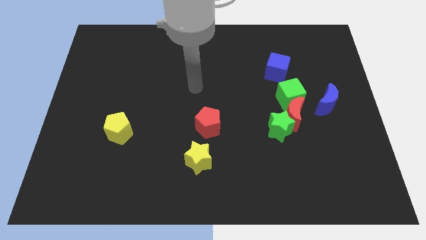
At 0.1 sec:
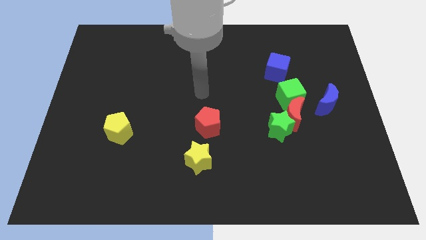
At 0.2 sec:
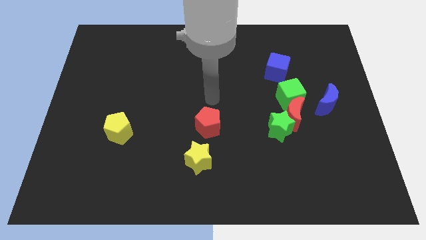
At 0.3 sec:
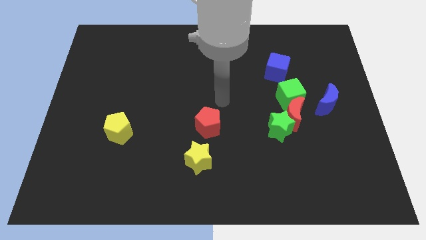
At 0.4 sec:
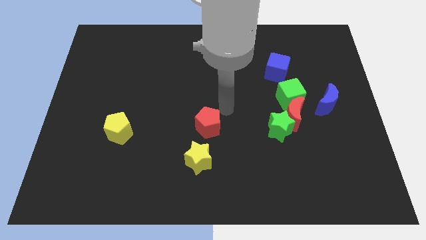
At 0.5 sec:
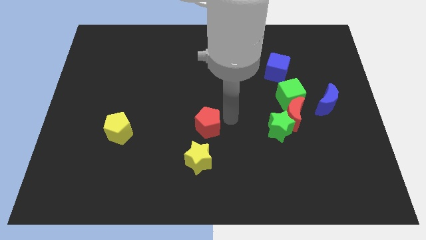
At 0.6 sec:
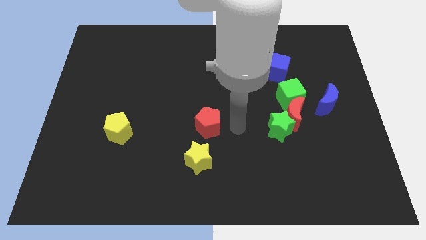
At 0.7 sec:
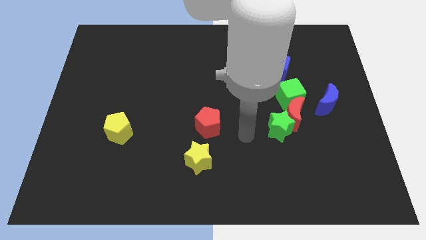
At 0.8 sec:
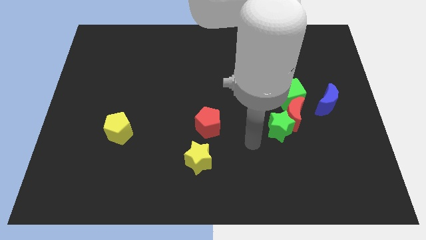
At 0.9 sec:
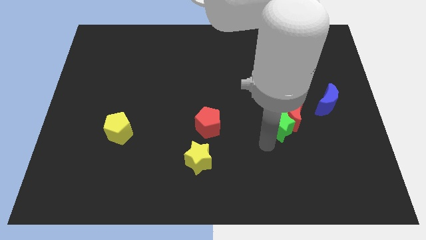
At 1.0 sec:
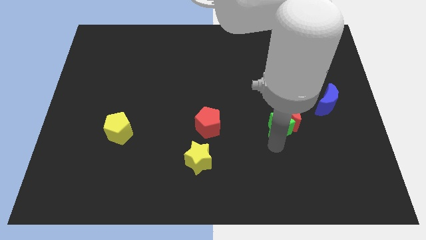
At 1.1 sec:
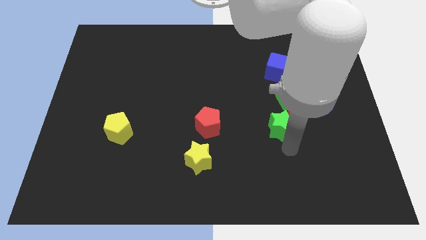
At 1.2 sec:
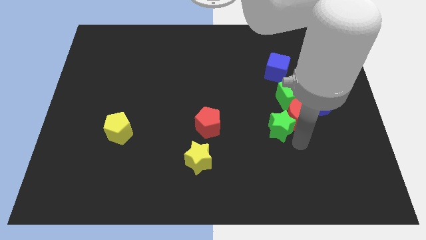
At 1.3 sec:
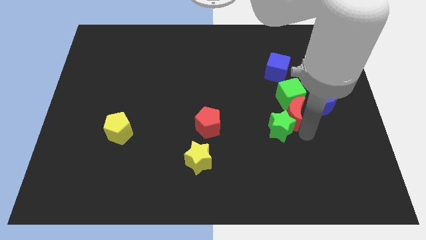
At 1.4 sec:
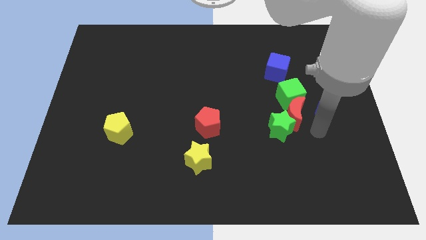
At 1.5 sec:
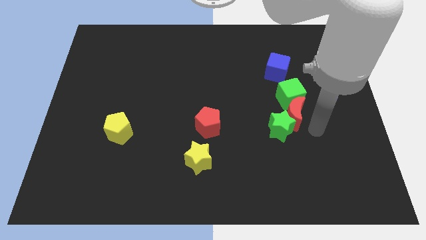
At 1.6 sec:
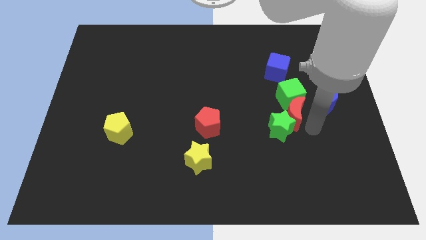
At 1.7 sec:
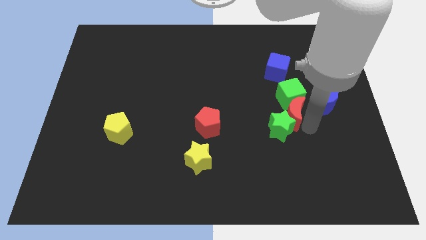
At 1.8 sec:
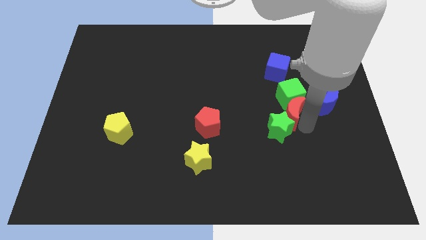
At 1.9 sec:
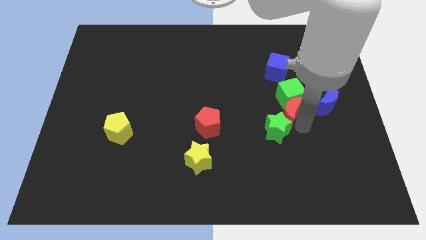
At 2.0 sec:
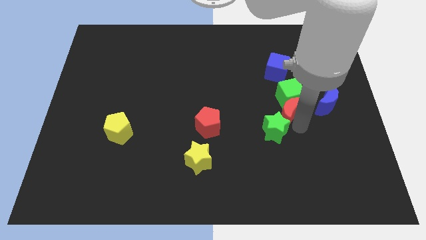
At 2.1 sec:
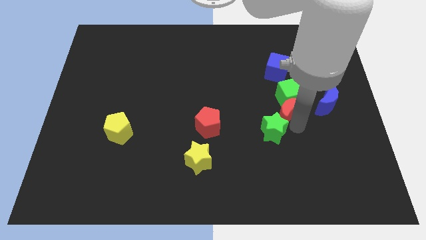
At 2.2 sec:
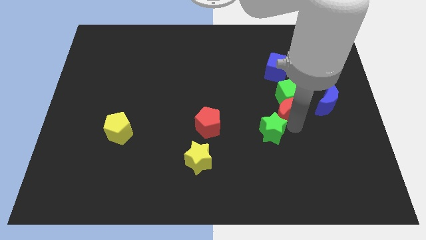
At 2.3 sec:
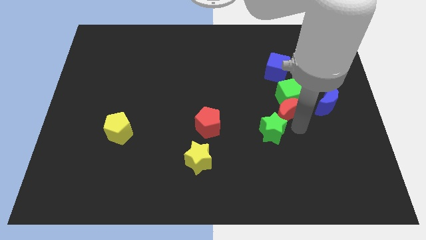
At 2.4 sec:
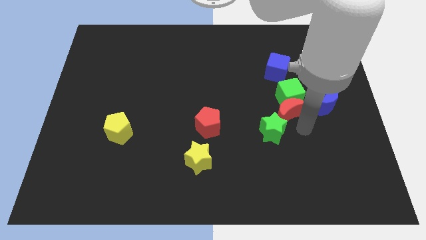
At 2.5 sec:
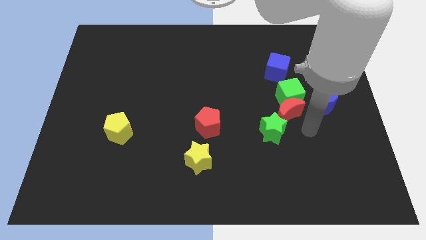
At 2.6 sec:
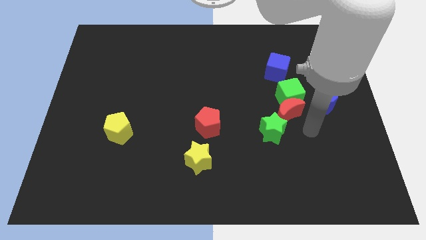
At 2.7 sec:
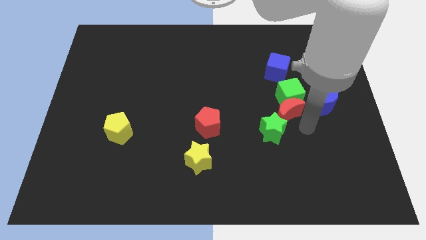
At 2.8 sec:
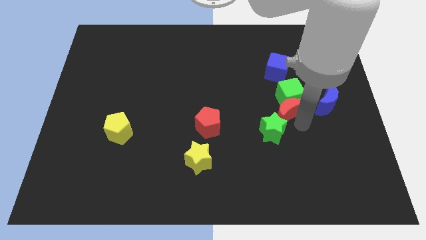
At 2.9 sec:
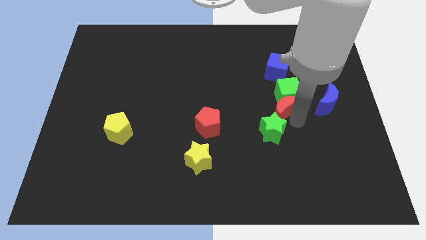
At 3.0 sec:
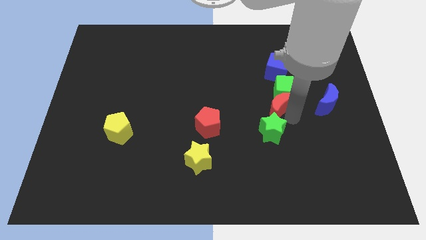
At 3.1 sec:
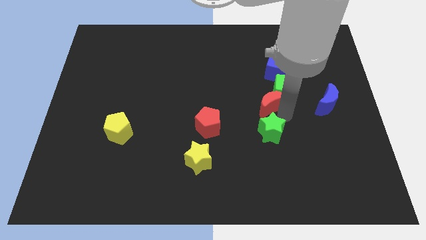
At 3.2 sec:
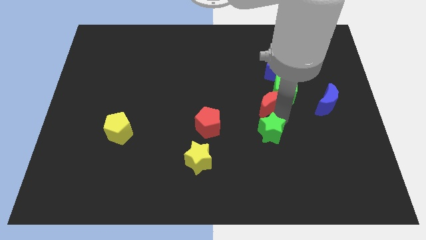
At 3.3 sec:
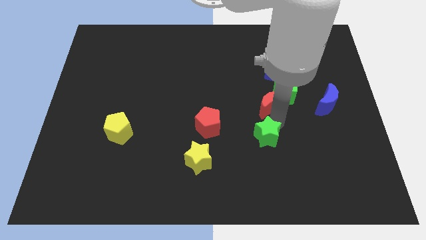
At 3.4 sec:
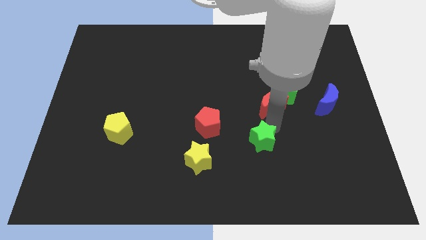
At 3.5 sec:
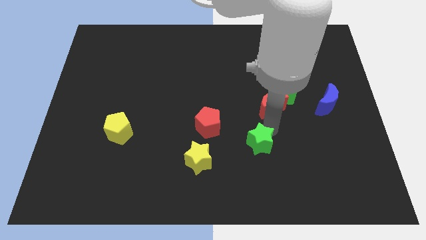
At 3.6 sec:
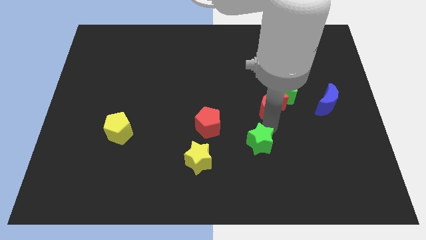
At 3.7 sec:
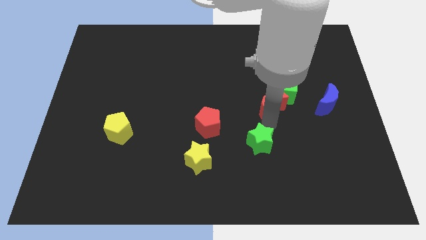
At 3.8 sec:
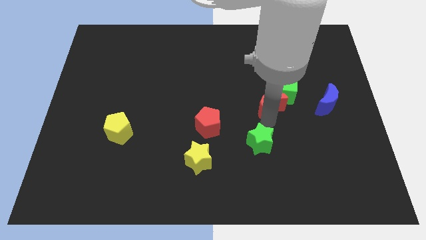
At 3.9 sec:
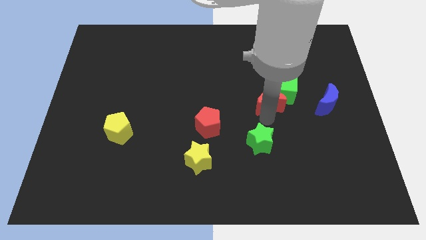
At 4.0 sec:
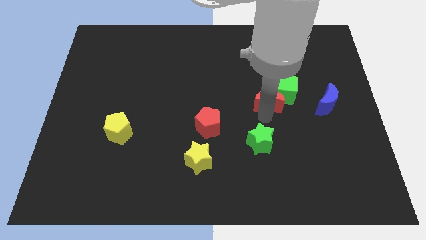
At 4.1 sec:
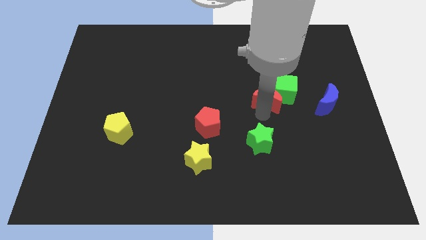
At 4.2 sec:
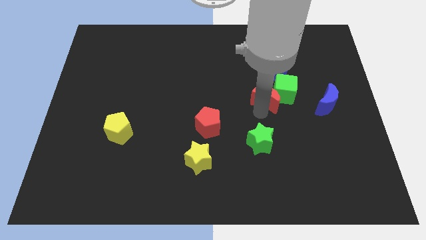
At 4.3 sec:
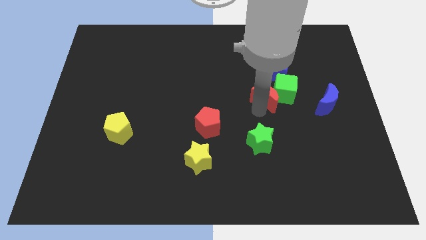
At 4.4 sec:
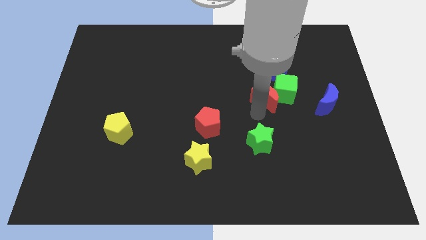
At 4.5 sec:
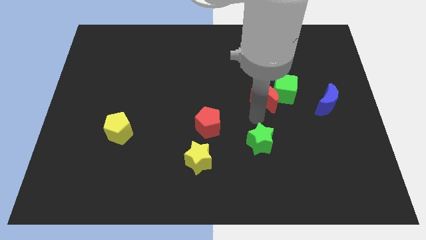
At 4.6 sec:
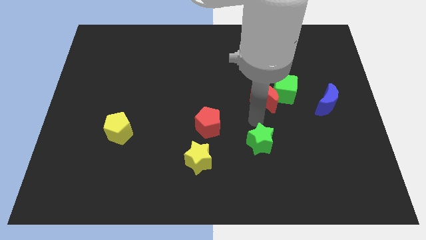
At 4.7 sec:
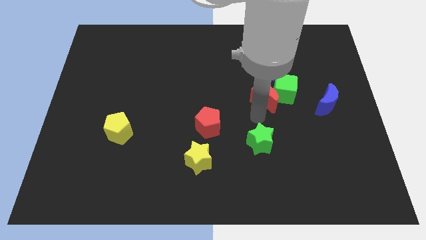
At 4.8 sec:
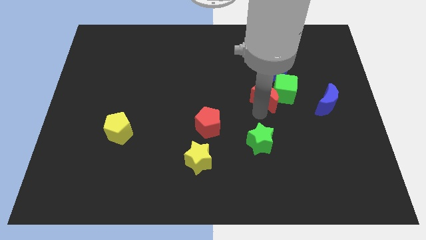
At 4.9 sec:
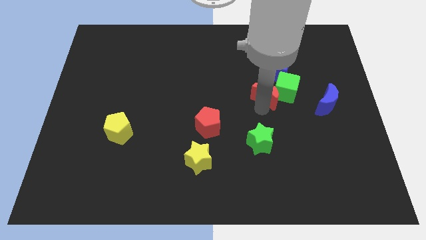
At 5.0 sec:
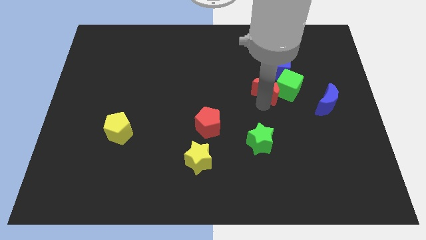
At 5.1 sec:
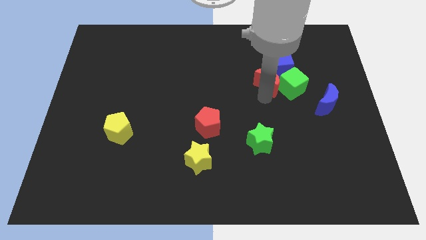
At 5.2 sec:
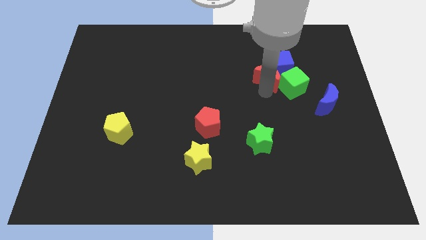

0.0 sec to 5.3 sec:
move the red moon to the blue cube
